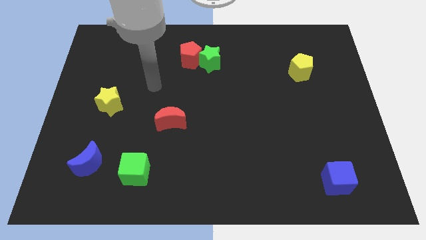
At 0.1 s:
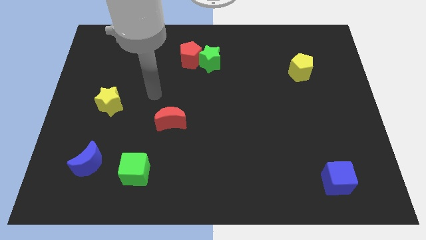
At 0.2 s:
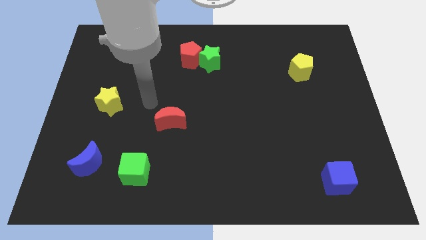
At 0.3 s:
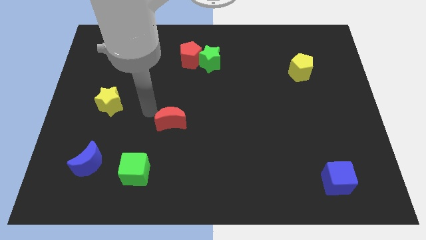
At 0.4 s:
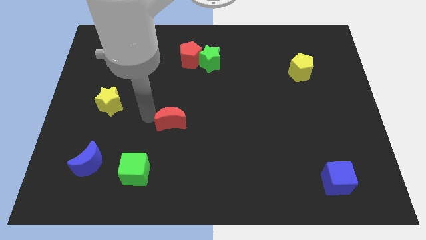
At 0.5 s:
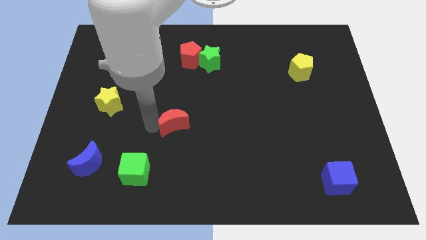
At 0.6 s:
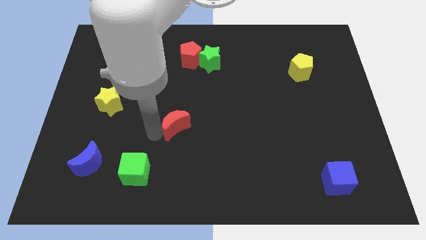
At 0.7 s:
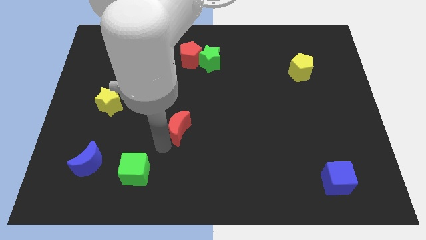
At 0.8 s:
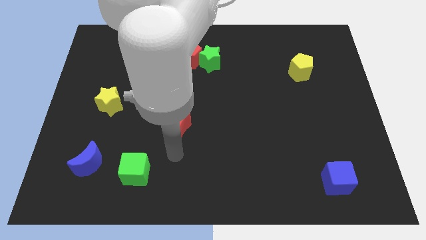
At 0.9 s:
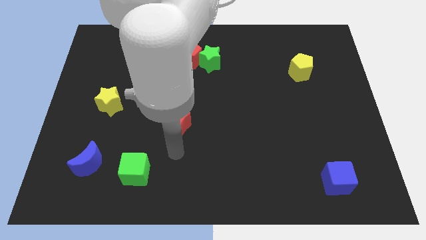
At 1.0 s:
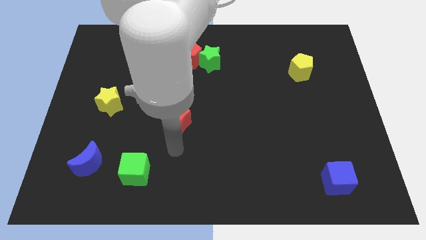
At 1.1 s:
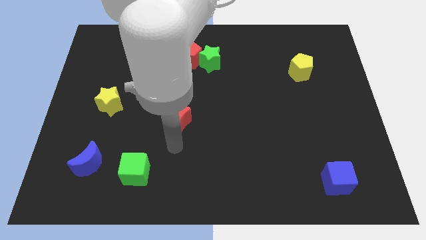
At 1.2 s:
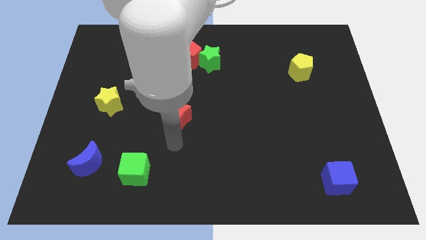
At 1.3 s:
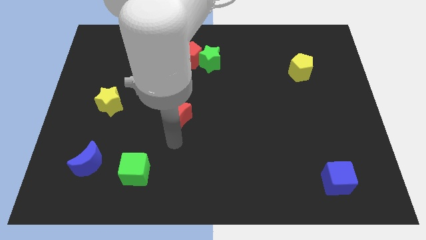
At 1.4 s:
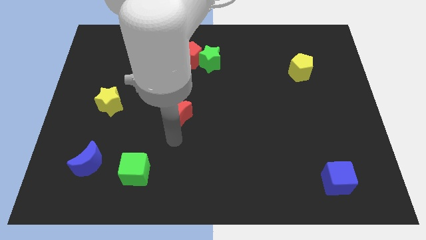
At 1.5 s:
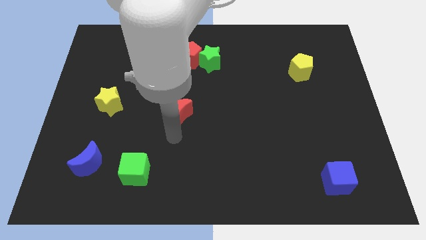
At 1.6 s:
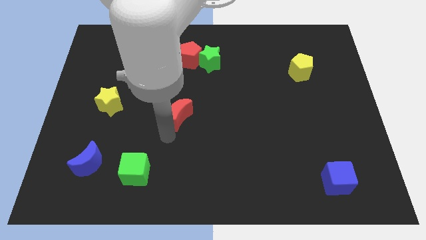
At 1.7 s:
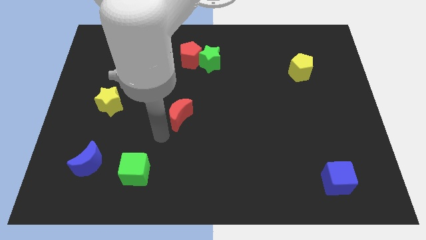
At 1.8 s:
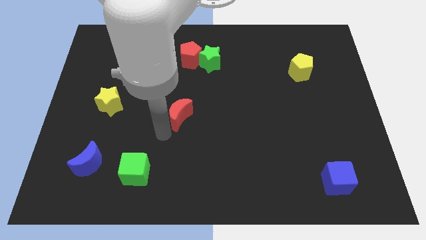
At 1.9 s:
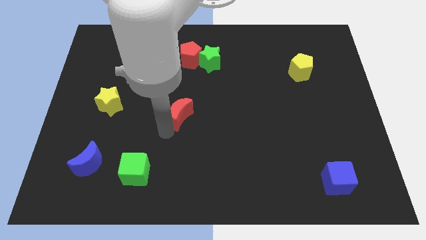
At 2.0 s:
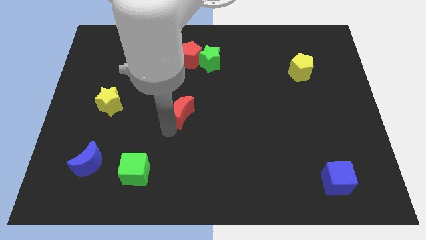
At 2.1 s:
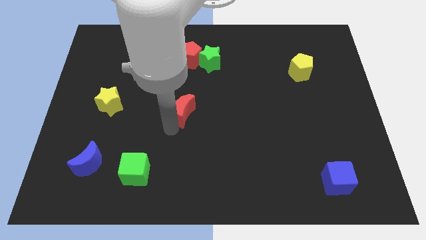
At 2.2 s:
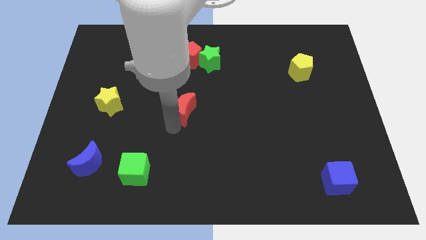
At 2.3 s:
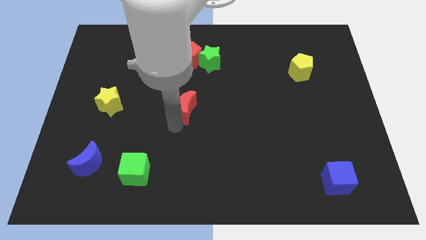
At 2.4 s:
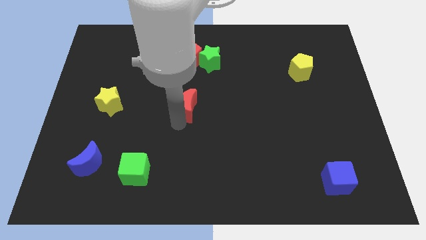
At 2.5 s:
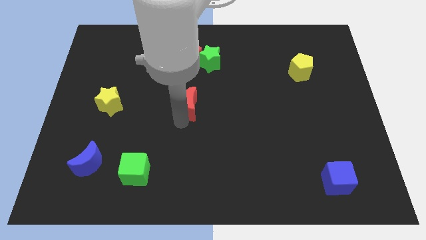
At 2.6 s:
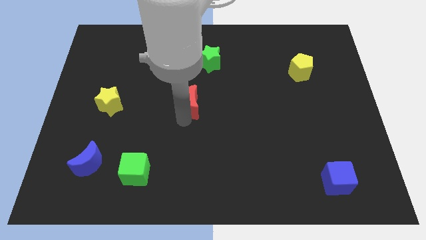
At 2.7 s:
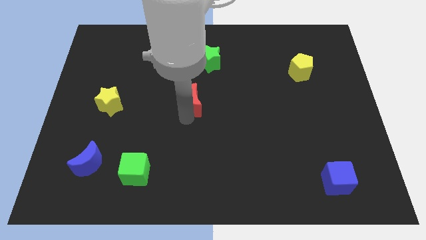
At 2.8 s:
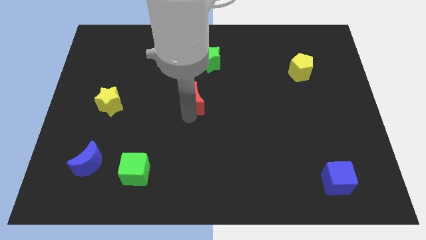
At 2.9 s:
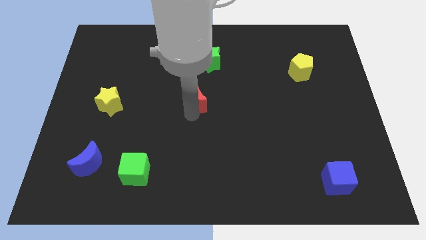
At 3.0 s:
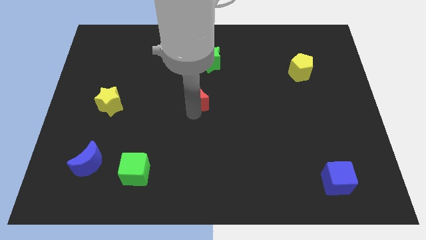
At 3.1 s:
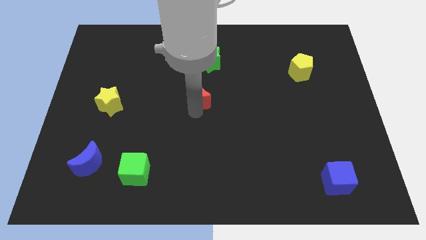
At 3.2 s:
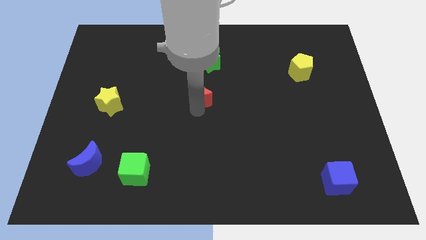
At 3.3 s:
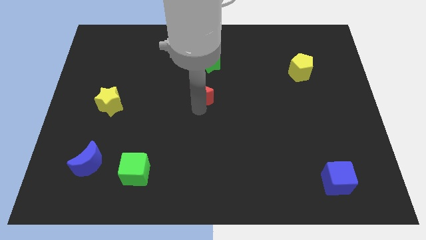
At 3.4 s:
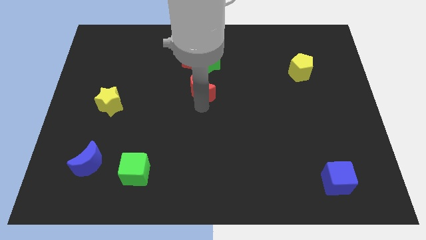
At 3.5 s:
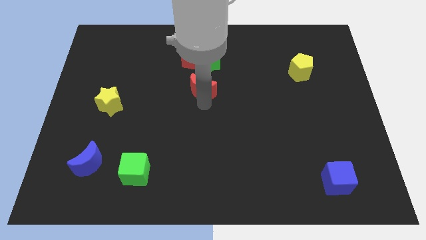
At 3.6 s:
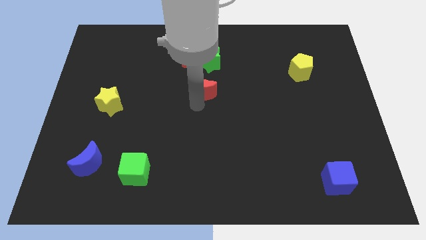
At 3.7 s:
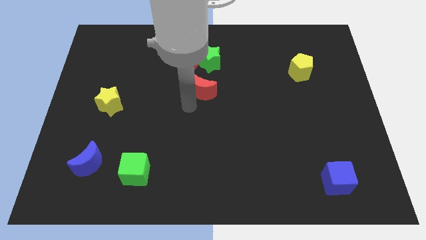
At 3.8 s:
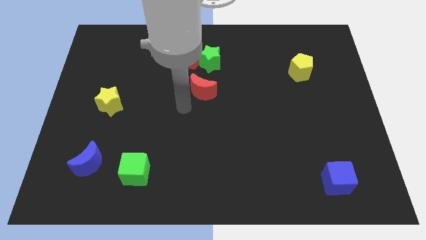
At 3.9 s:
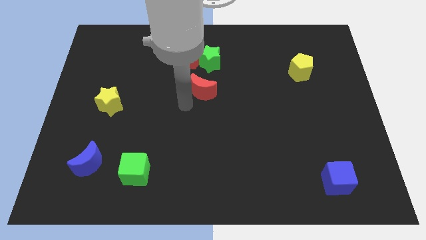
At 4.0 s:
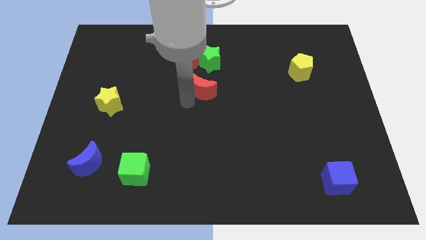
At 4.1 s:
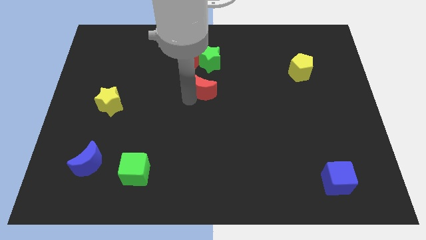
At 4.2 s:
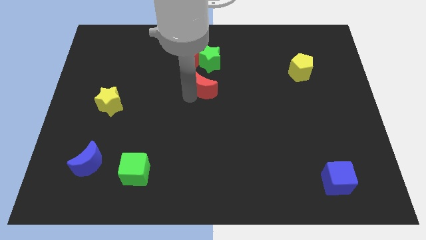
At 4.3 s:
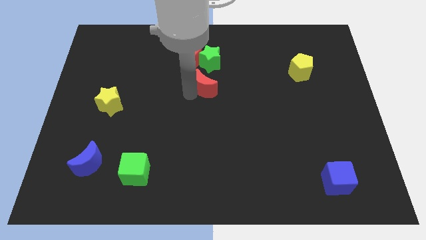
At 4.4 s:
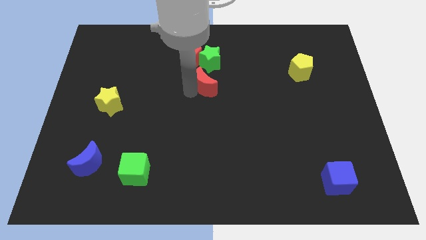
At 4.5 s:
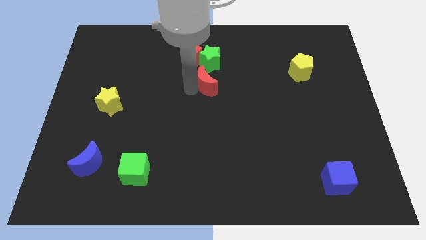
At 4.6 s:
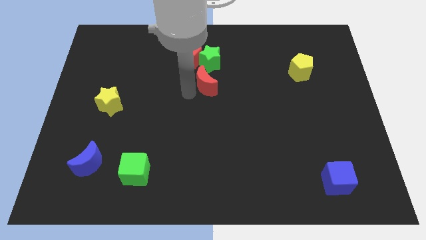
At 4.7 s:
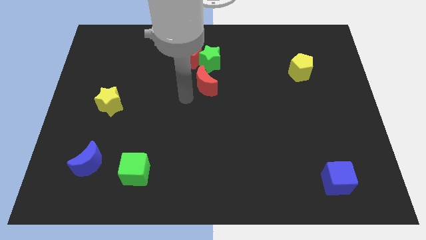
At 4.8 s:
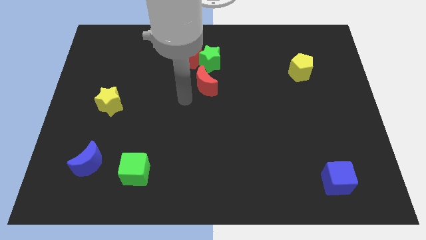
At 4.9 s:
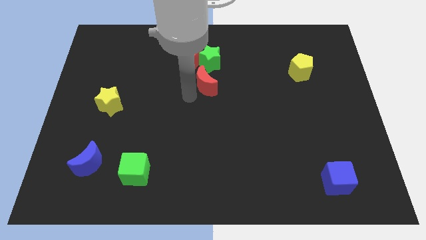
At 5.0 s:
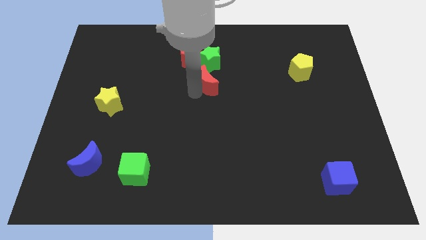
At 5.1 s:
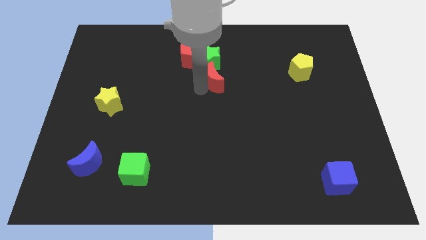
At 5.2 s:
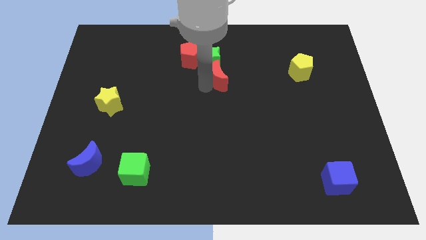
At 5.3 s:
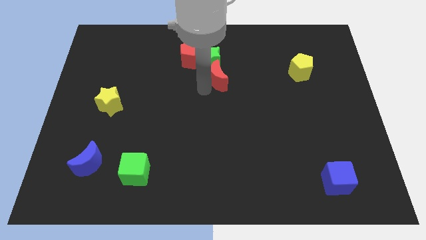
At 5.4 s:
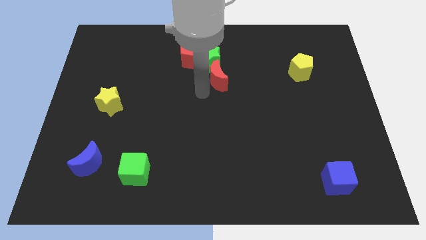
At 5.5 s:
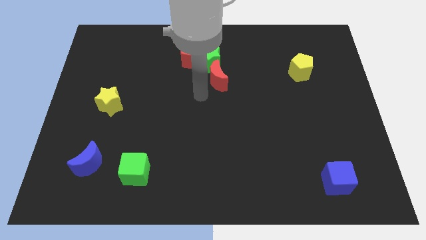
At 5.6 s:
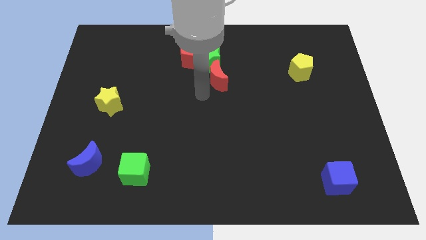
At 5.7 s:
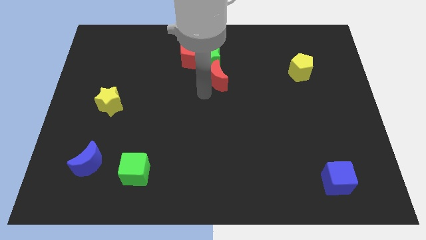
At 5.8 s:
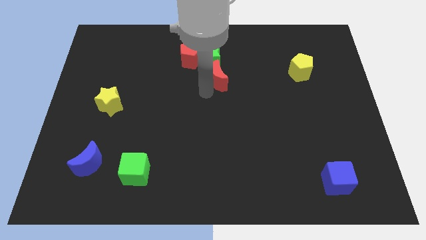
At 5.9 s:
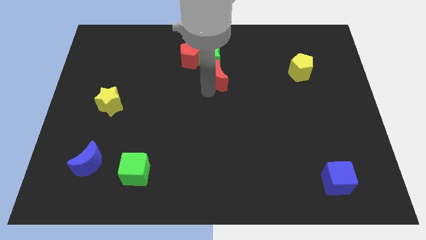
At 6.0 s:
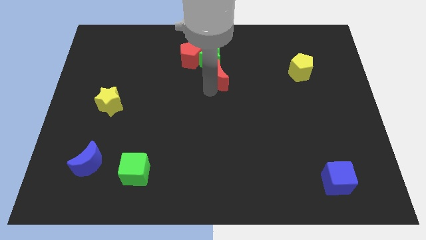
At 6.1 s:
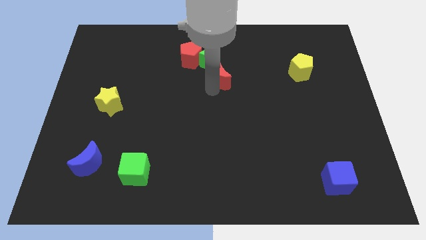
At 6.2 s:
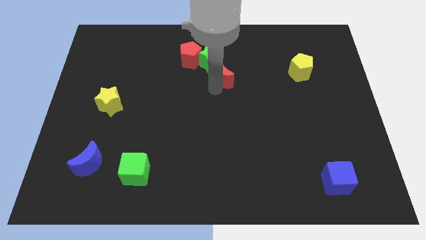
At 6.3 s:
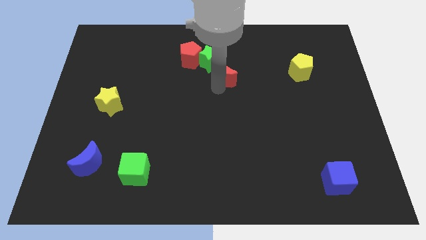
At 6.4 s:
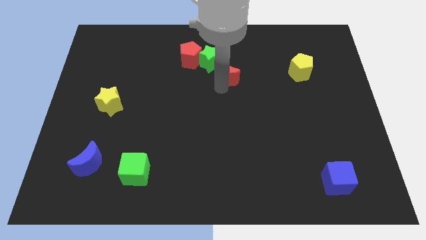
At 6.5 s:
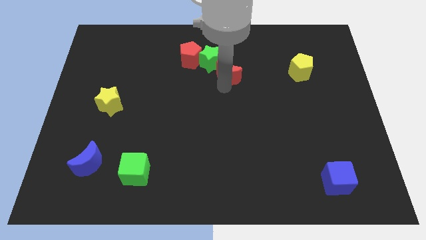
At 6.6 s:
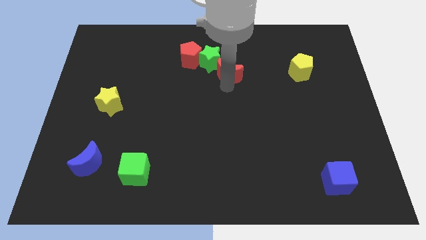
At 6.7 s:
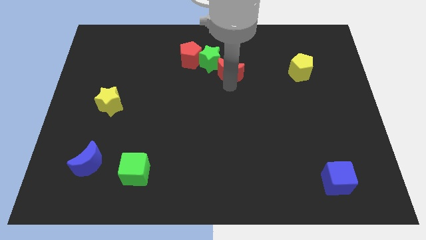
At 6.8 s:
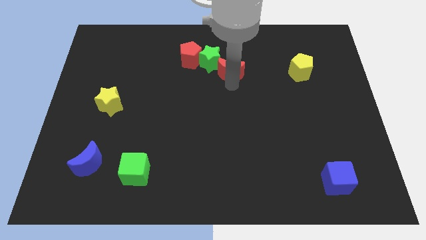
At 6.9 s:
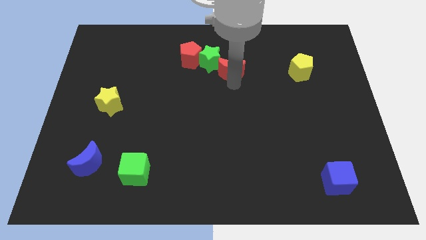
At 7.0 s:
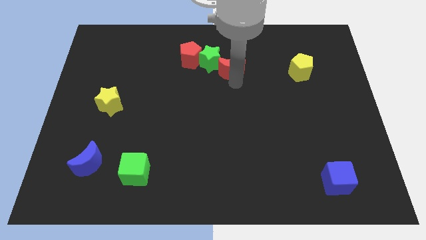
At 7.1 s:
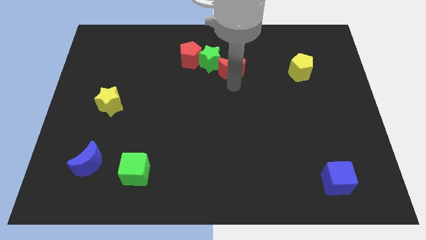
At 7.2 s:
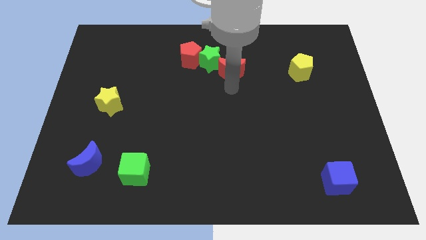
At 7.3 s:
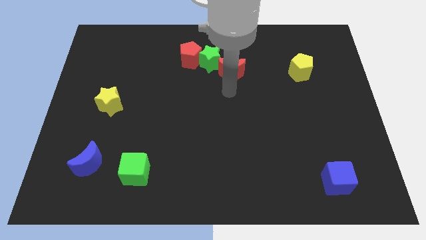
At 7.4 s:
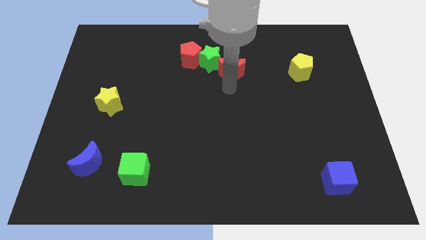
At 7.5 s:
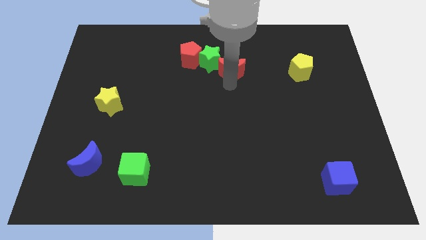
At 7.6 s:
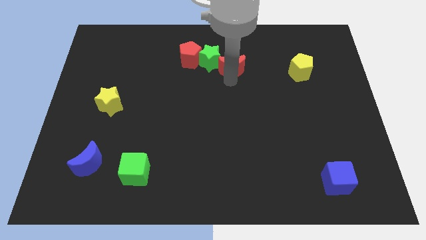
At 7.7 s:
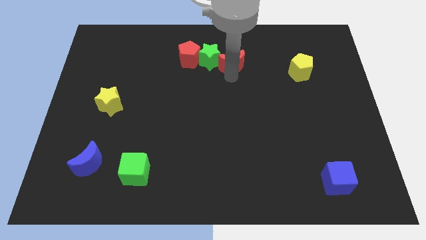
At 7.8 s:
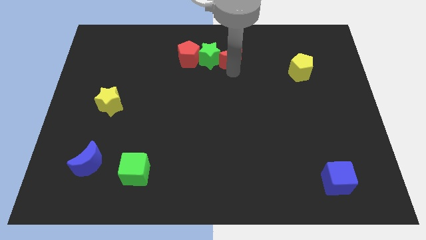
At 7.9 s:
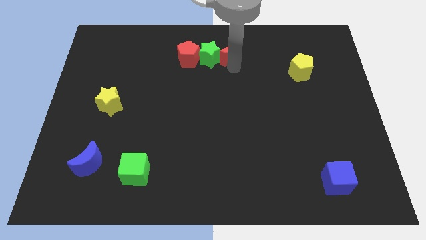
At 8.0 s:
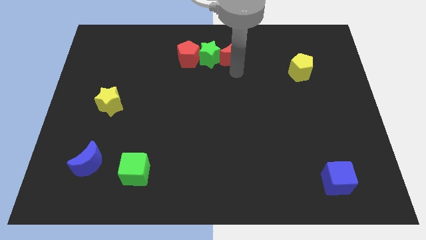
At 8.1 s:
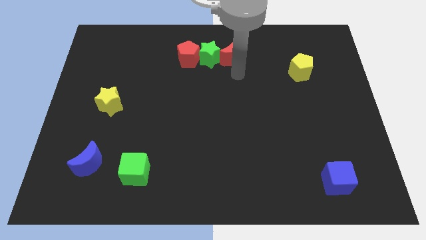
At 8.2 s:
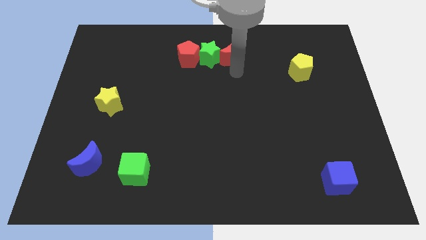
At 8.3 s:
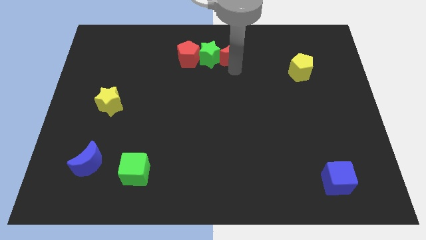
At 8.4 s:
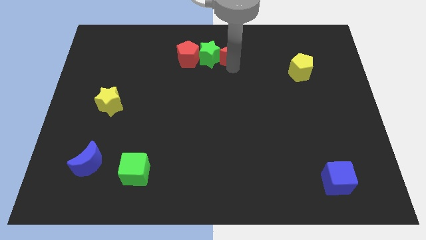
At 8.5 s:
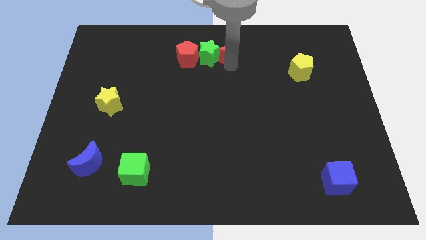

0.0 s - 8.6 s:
move the red moon to the top
